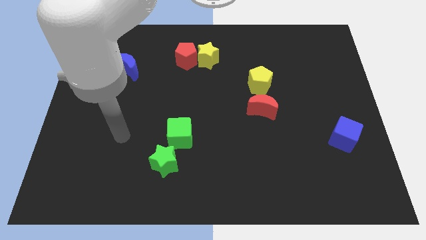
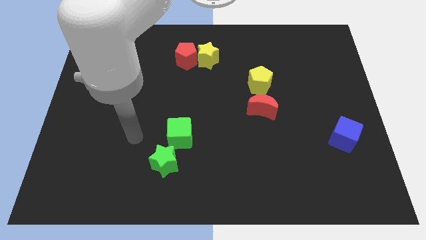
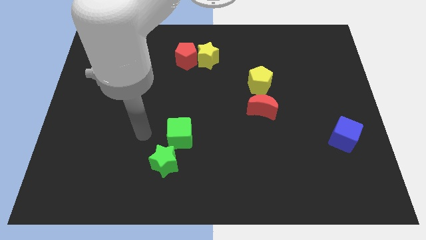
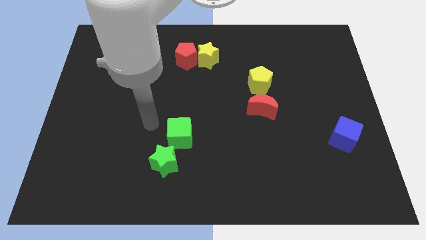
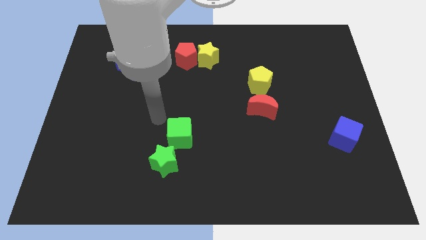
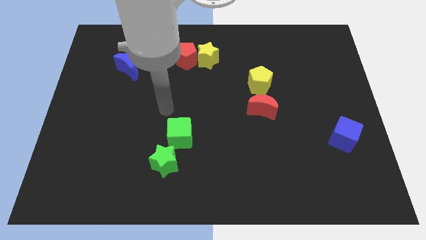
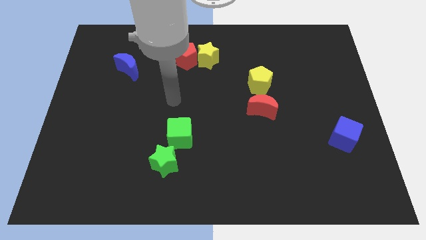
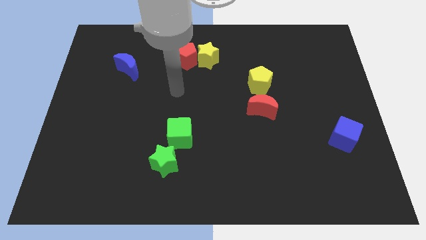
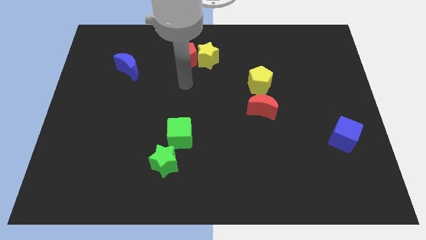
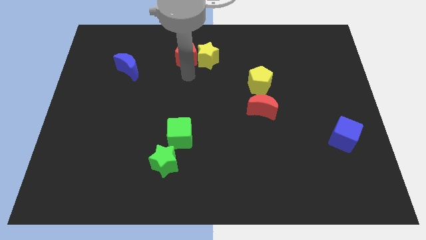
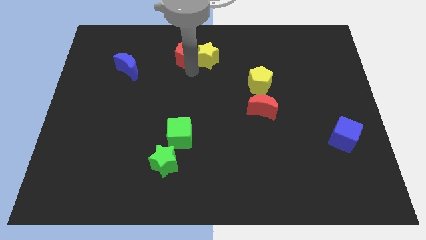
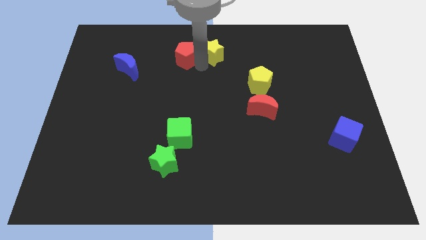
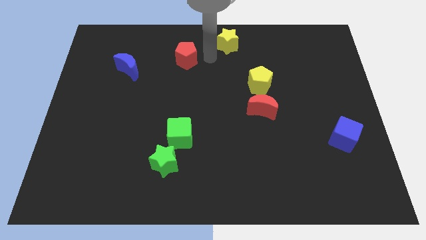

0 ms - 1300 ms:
pull the red pentagon apart from the yellow star

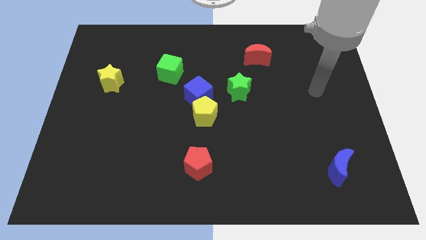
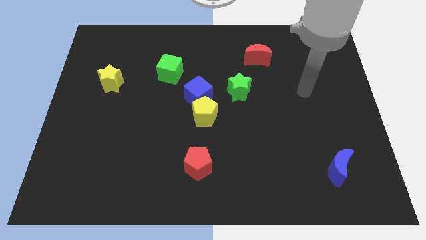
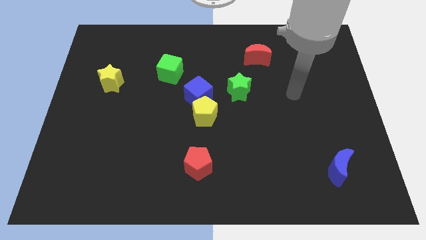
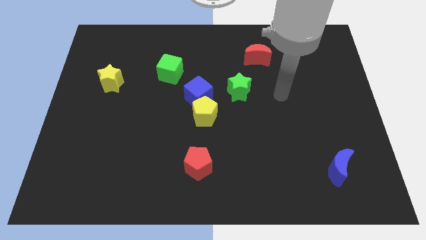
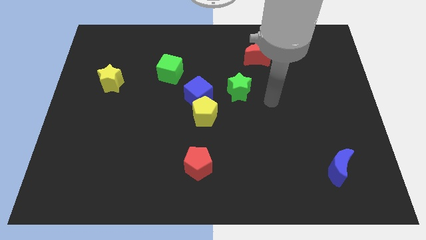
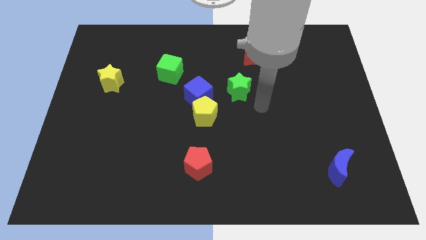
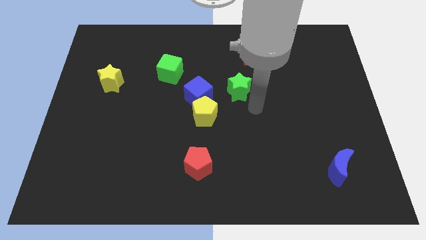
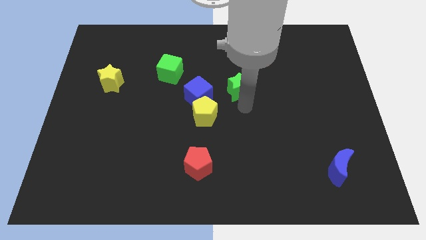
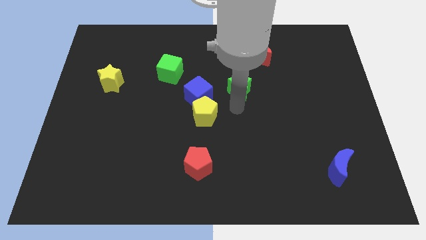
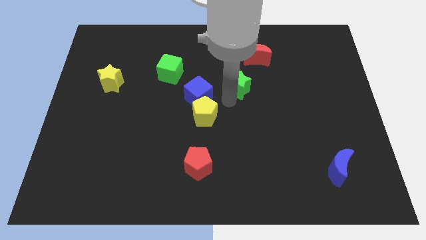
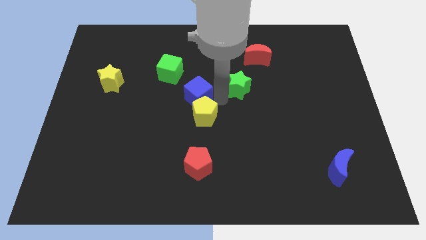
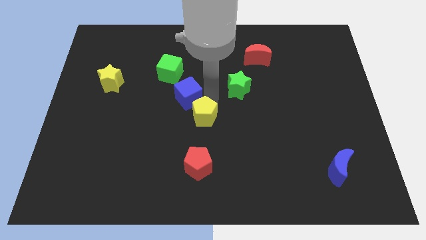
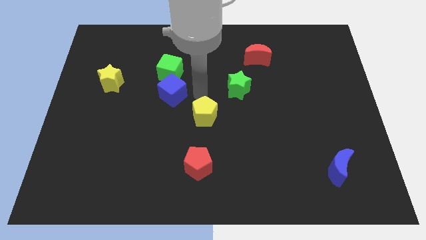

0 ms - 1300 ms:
pull the yellow pentagon apart from the blue cube

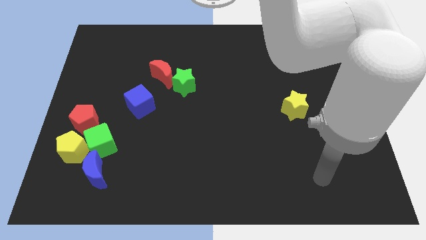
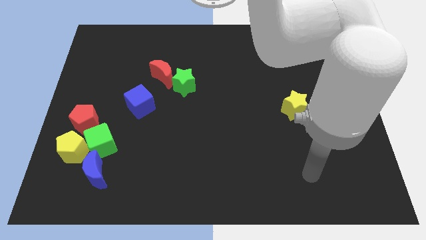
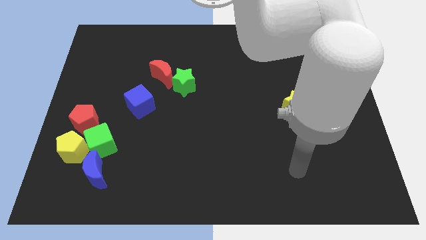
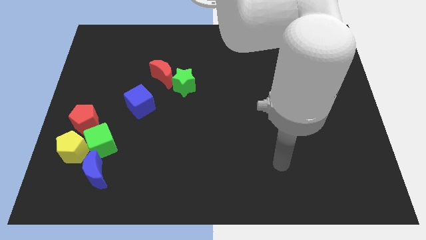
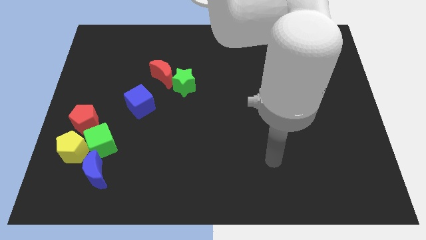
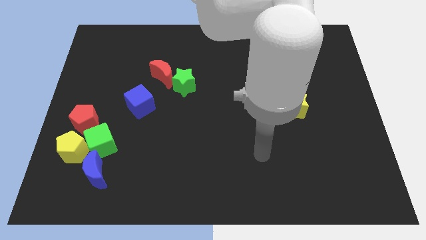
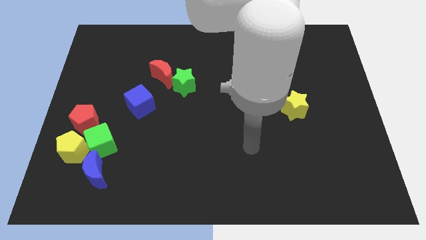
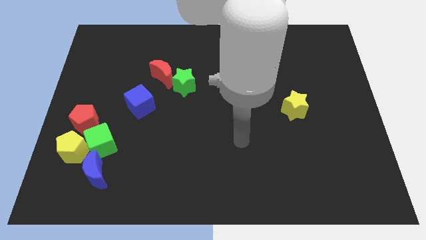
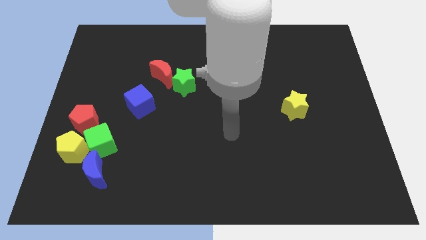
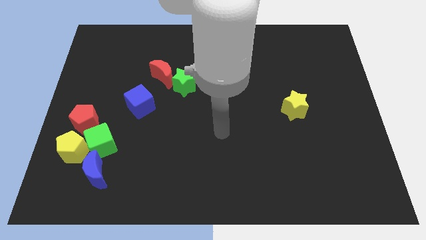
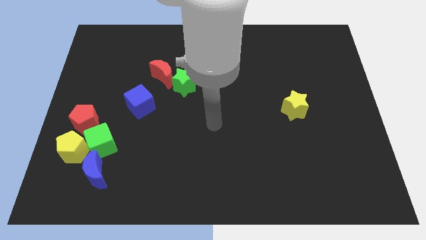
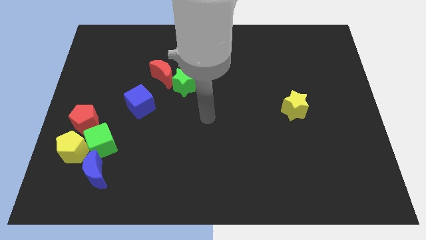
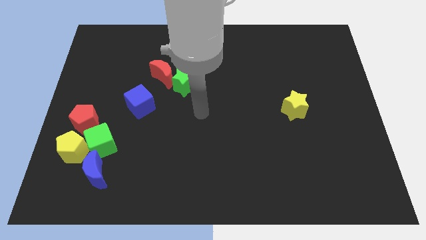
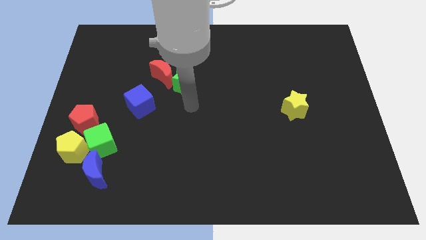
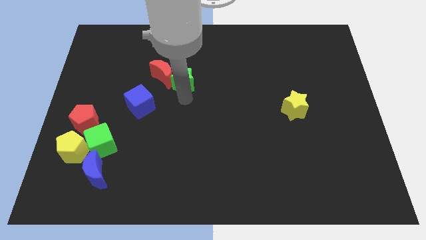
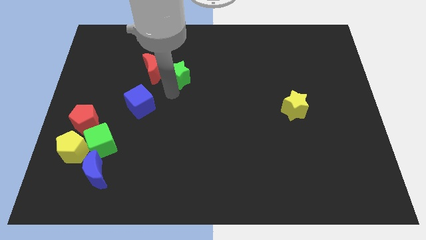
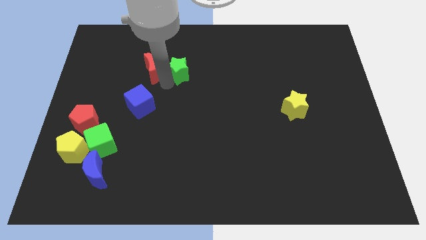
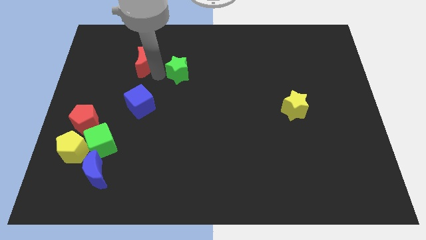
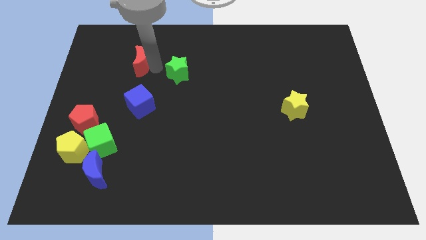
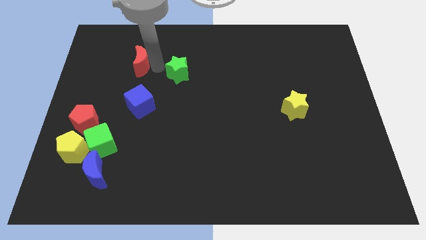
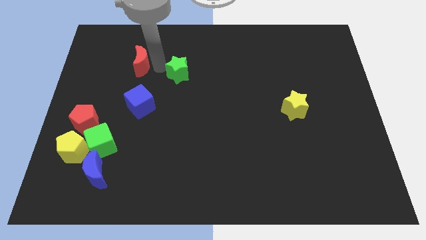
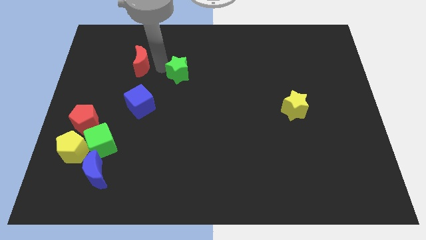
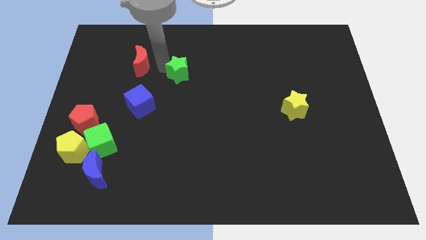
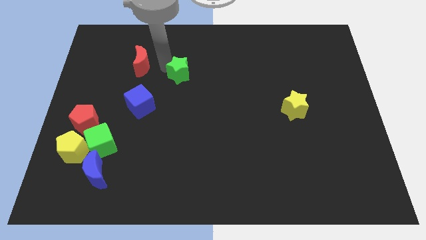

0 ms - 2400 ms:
separate the green star from the red moon

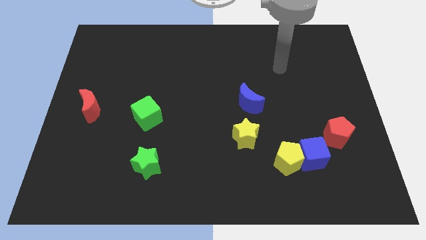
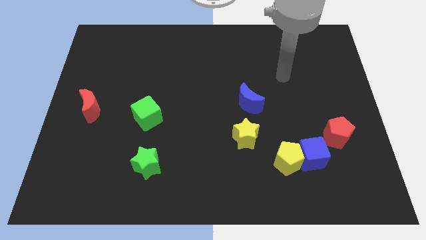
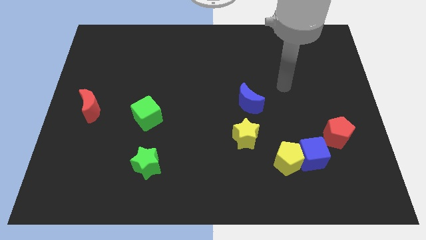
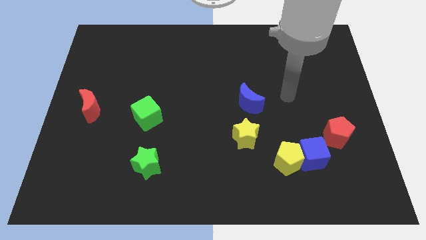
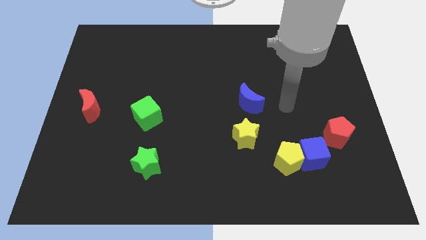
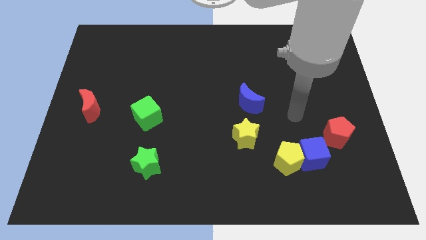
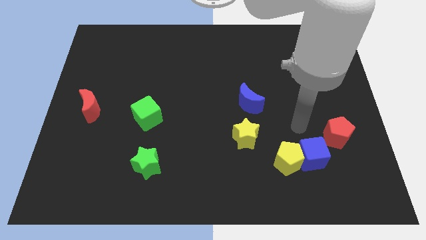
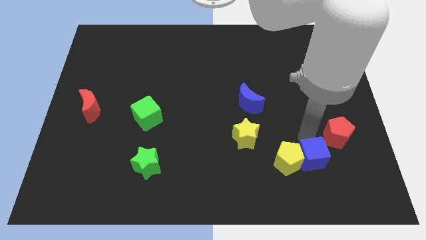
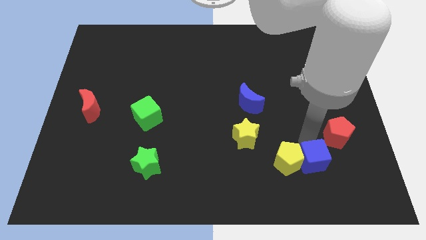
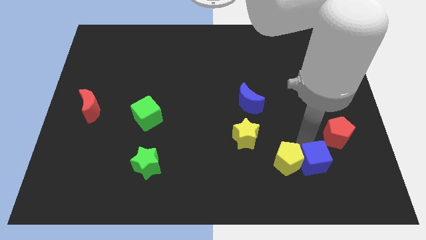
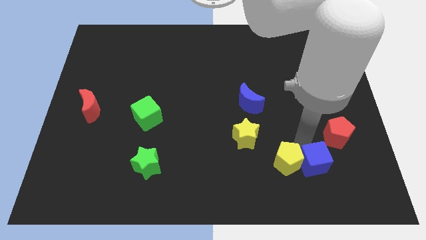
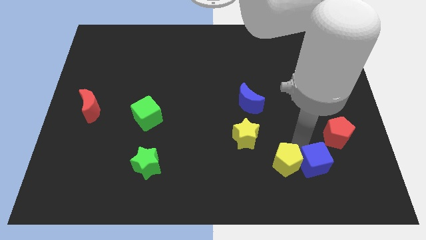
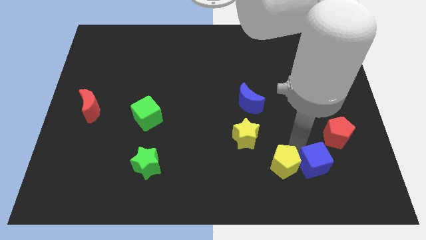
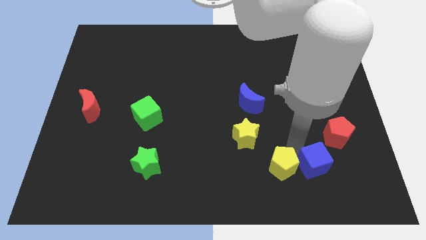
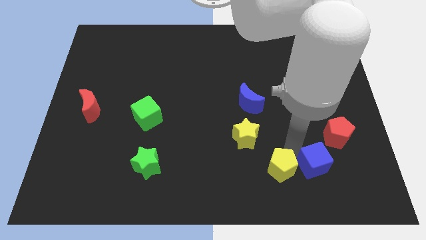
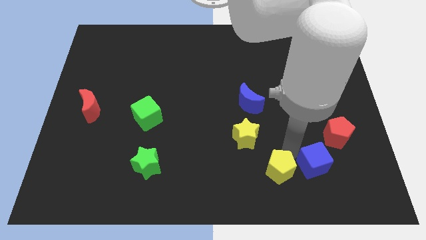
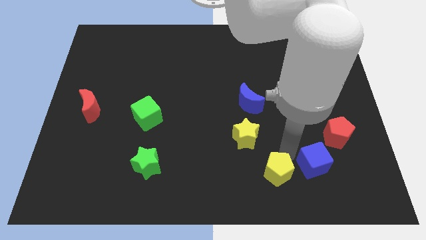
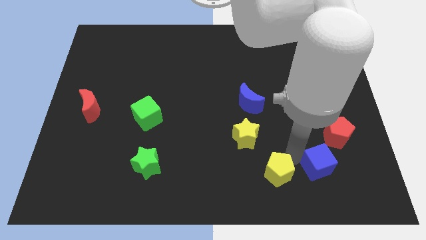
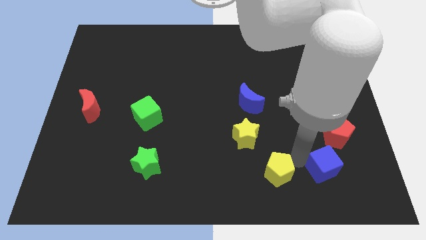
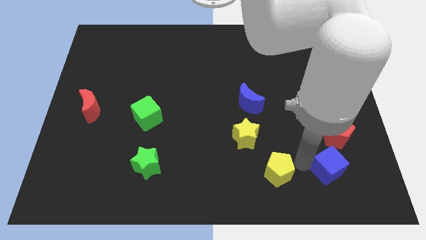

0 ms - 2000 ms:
separate the yellow pentagon from the blue cube

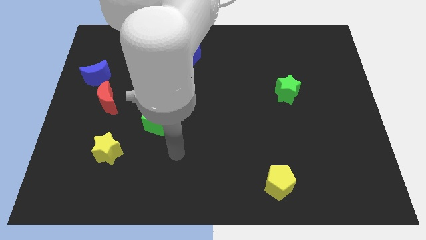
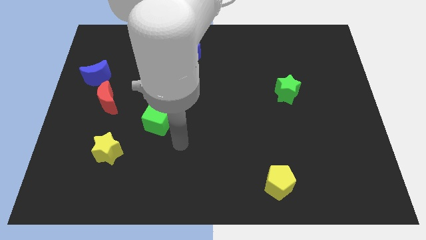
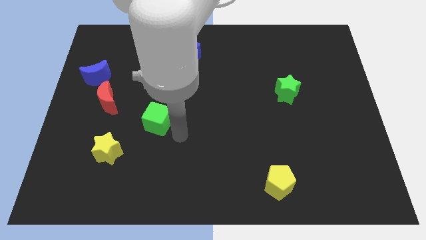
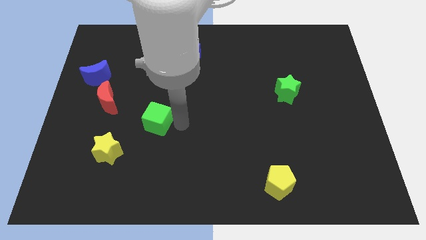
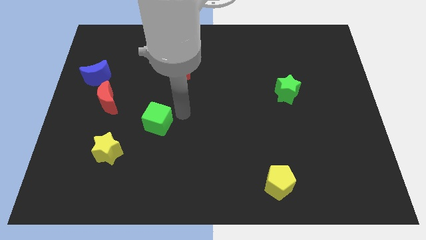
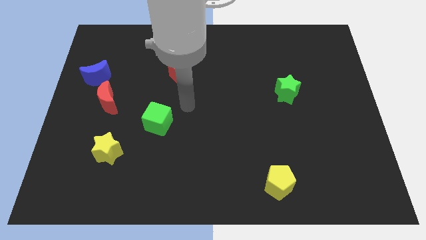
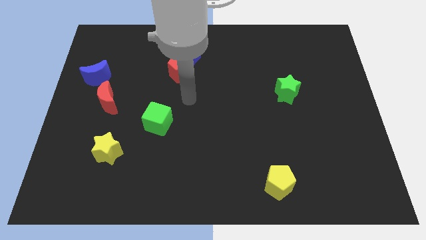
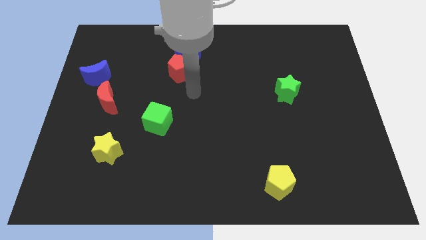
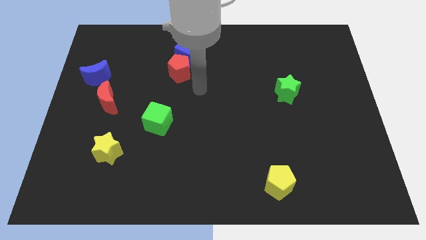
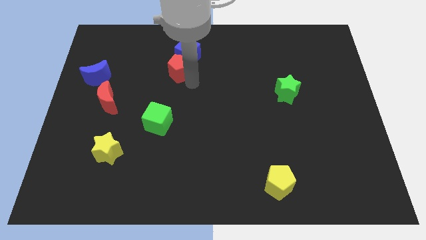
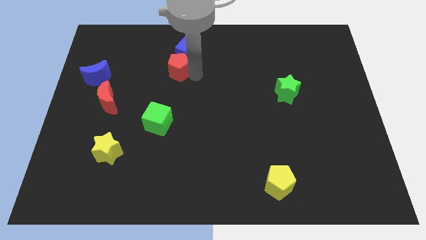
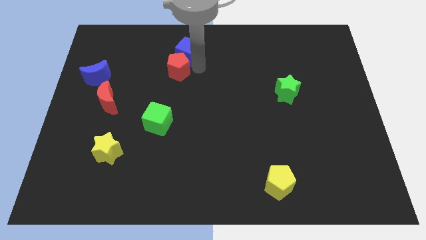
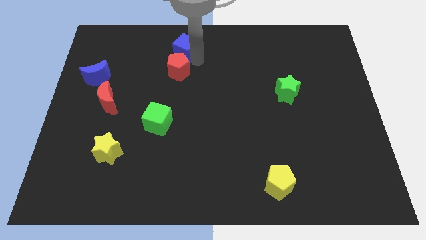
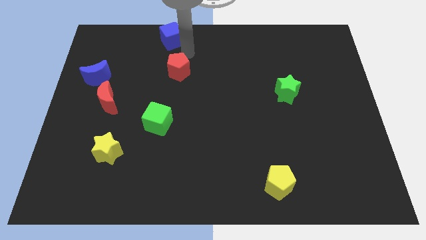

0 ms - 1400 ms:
separate the red pentagon from the blue cube

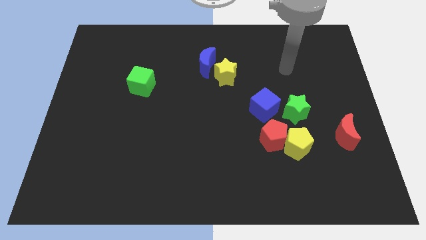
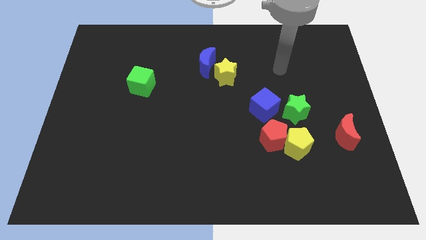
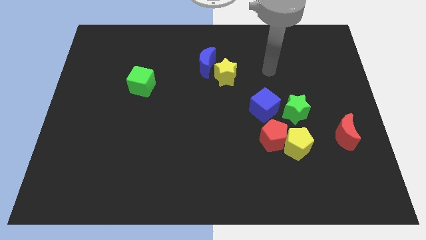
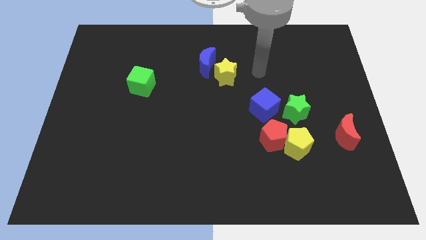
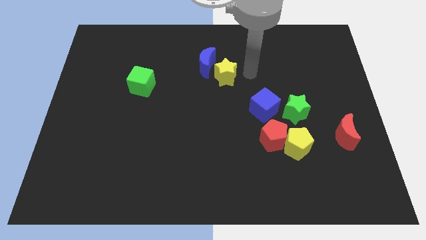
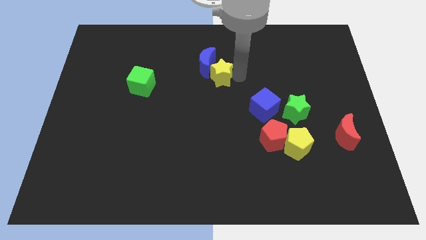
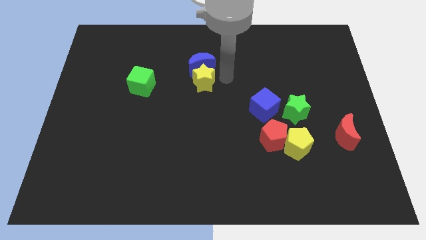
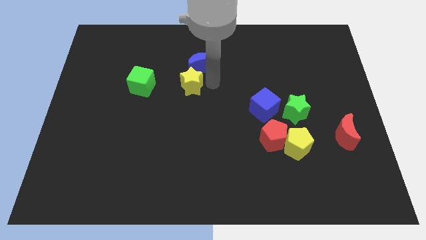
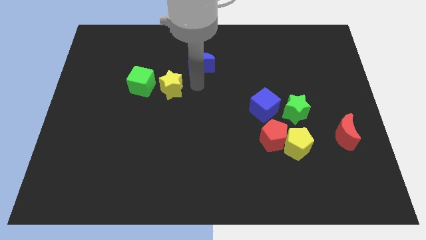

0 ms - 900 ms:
separate the blue moon from the yellow star

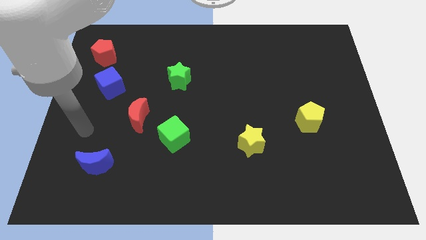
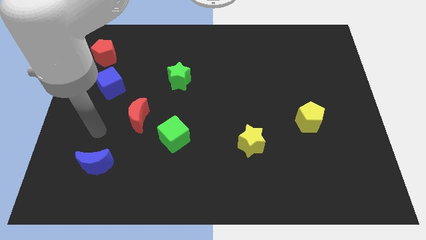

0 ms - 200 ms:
move the red moon away from the green cube
